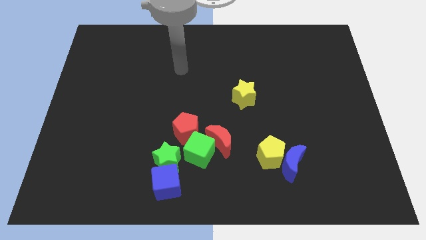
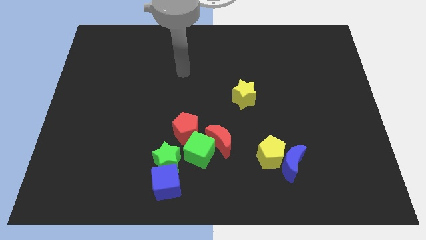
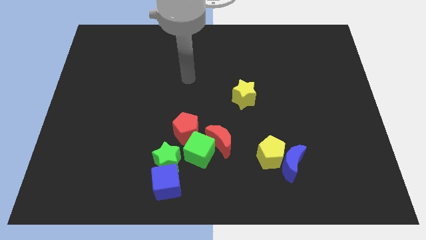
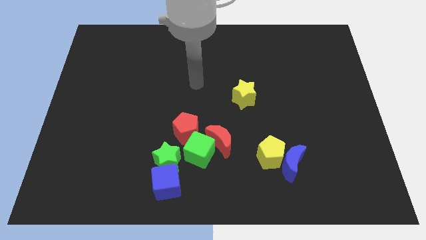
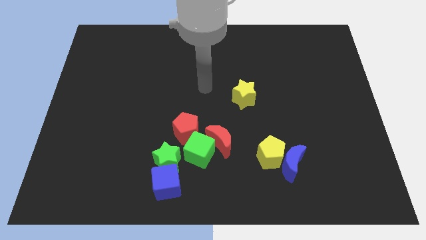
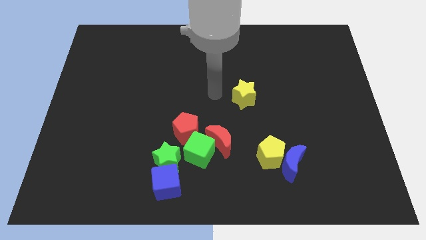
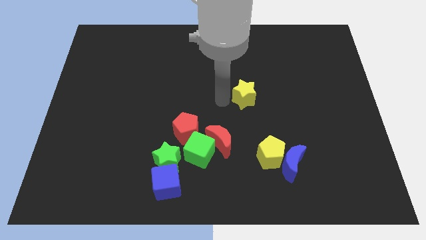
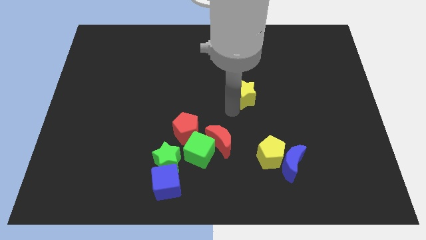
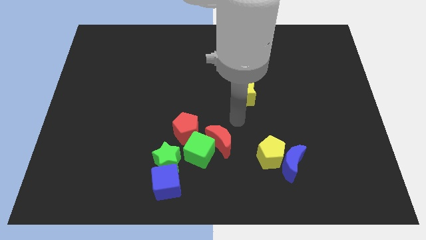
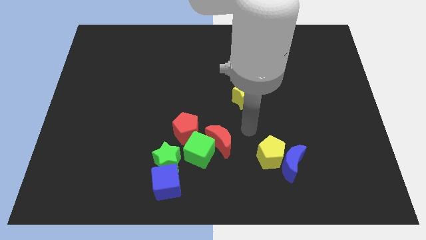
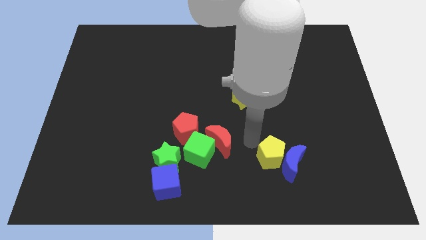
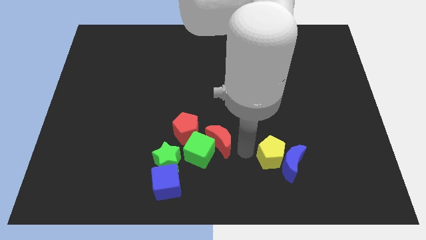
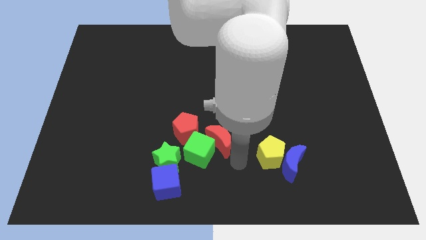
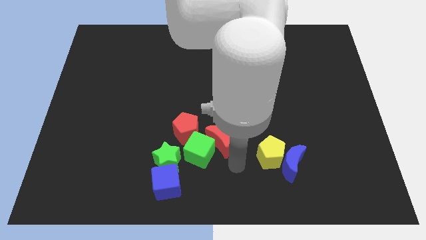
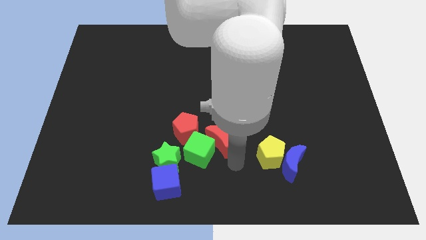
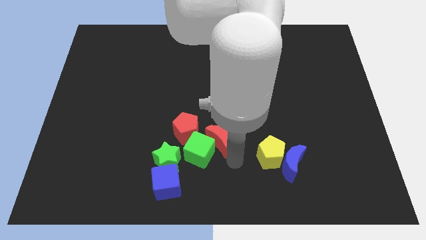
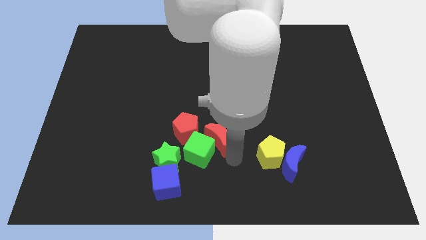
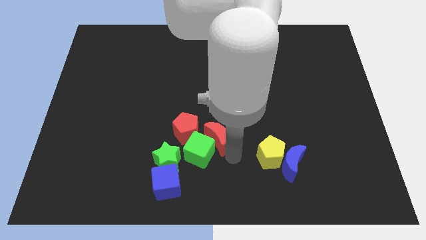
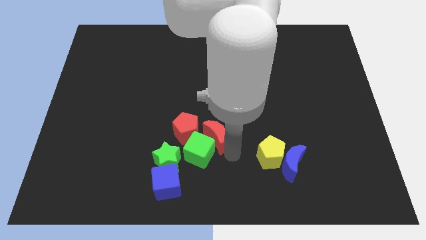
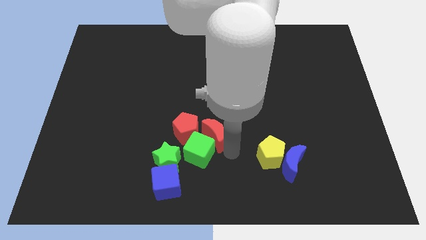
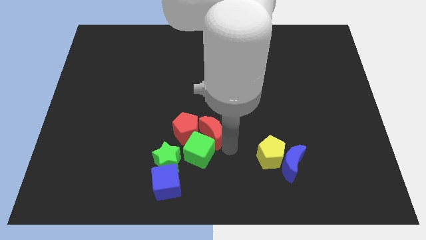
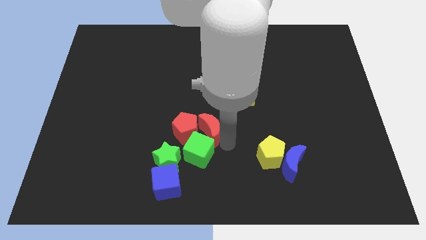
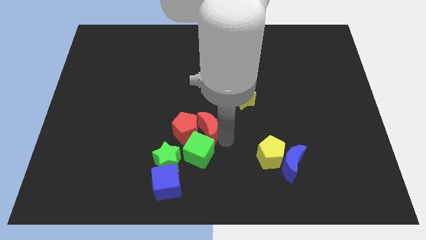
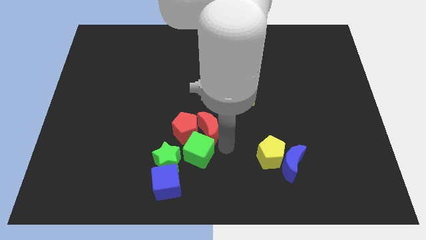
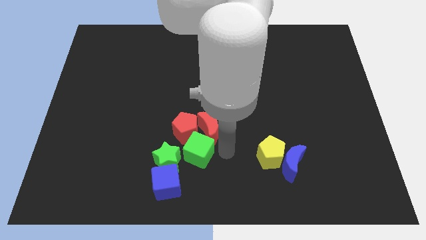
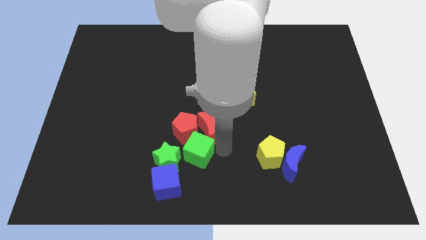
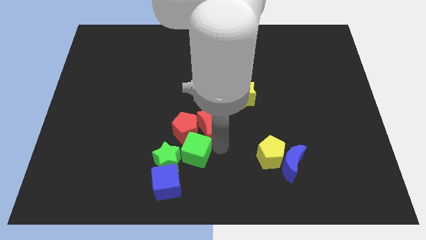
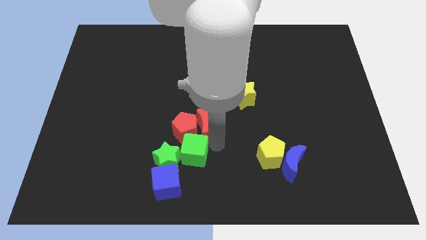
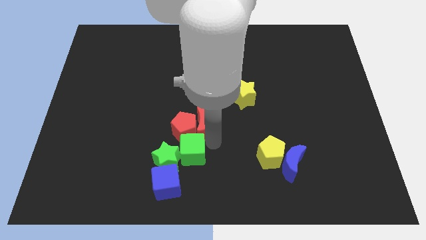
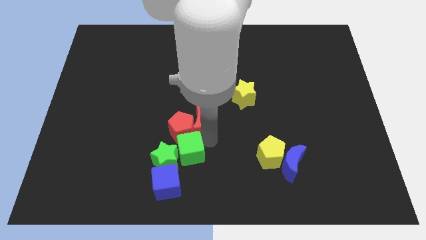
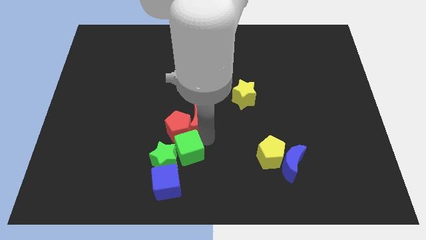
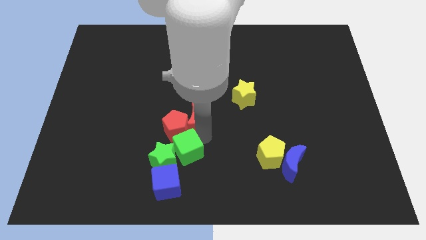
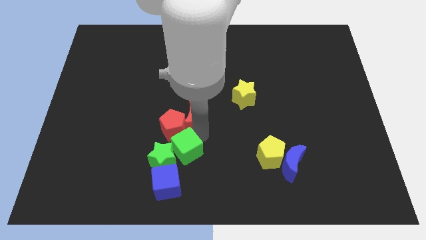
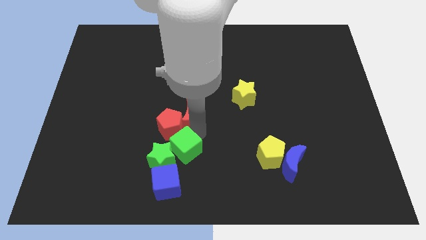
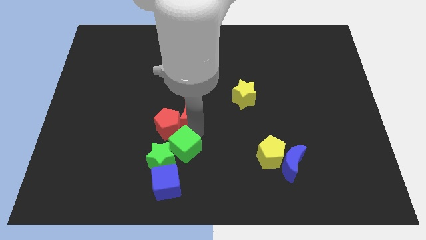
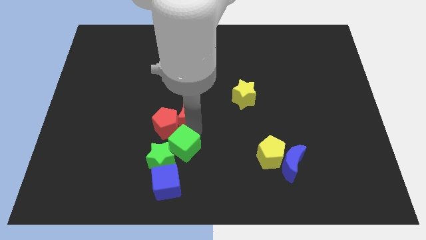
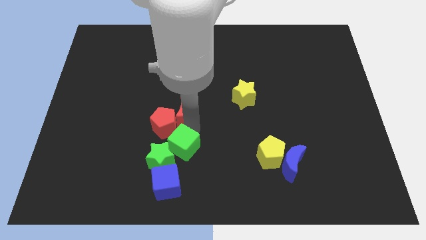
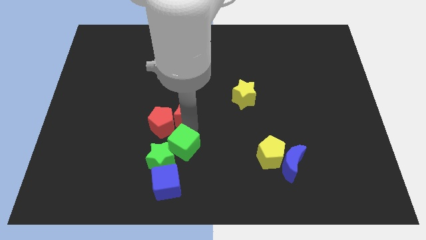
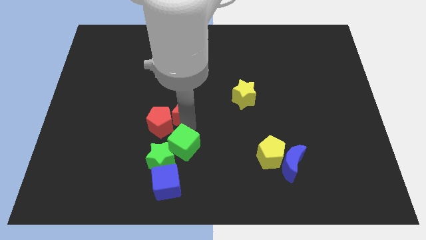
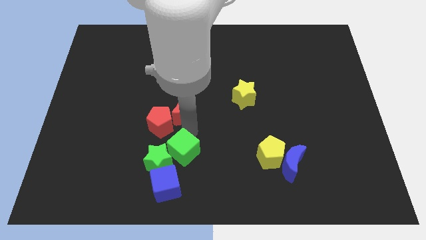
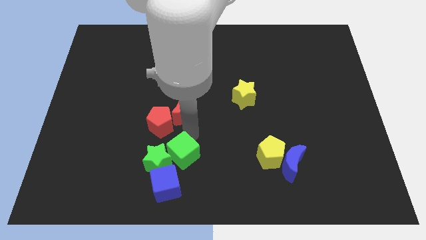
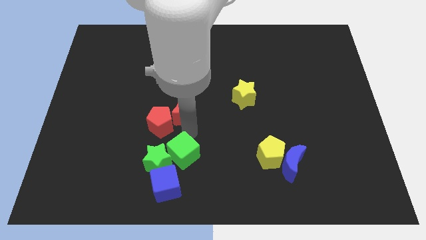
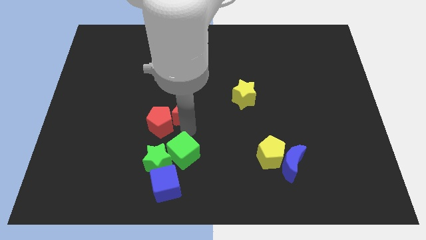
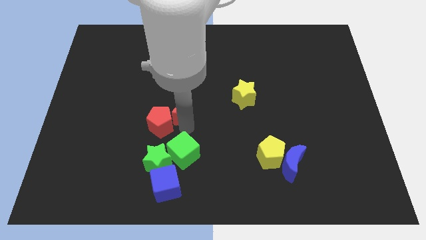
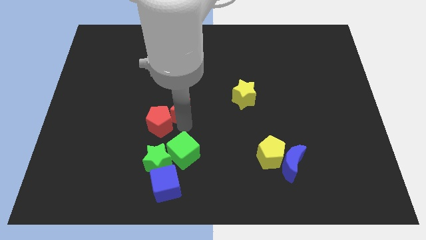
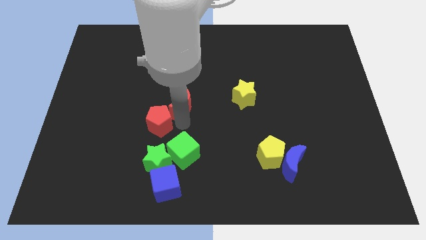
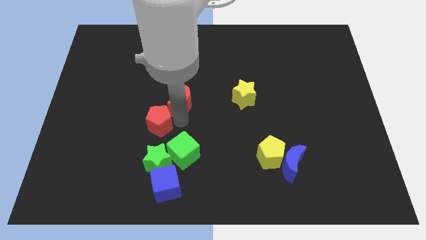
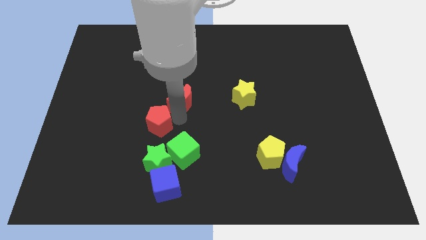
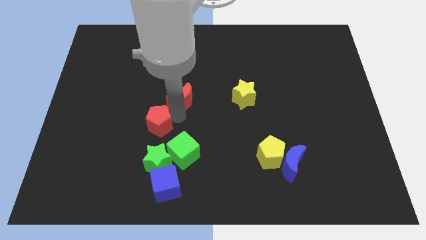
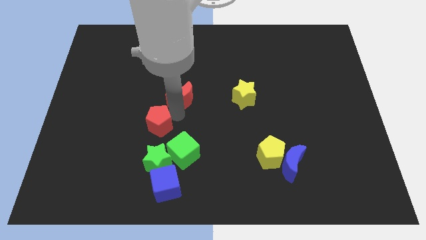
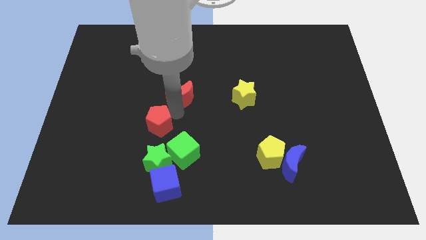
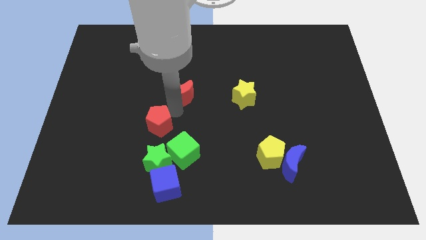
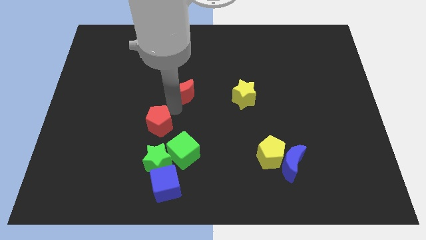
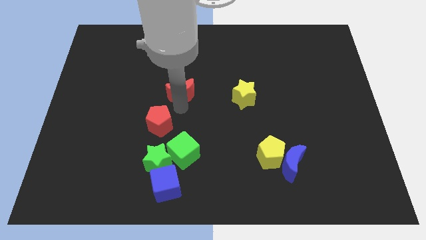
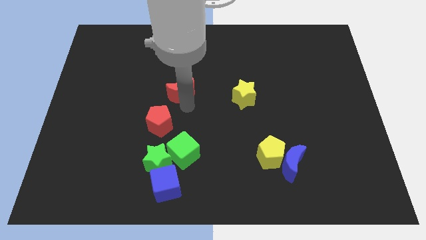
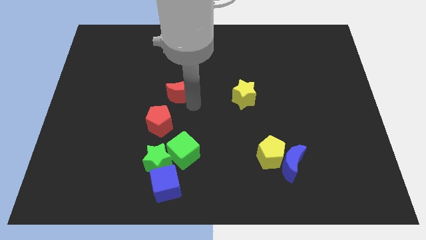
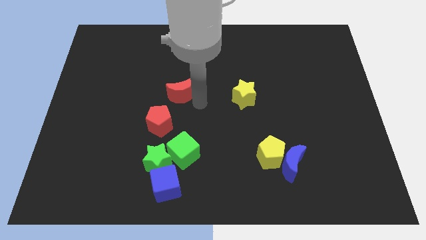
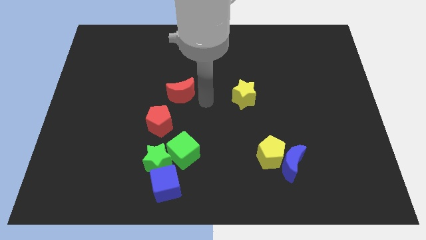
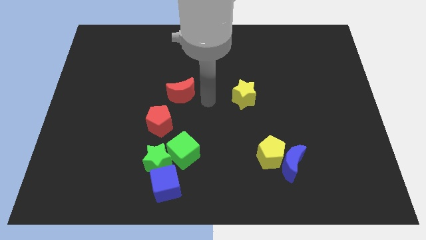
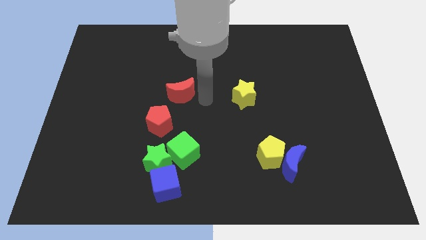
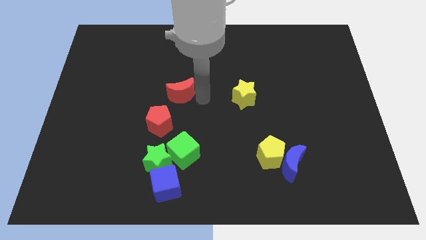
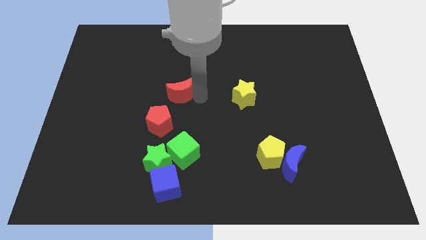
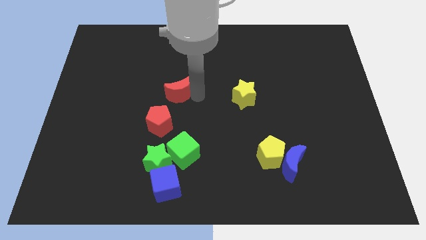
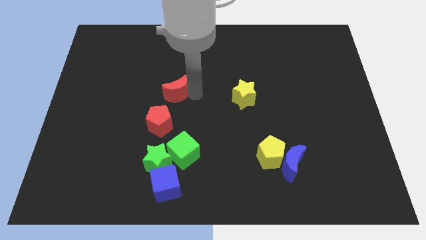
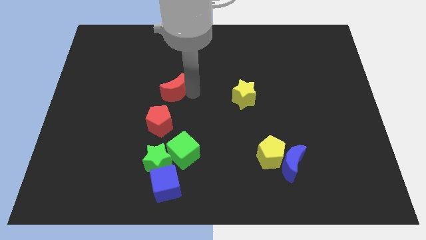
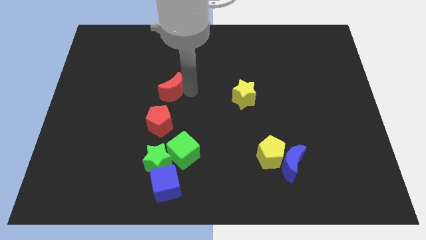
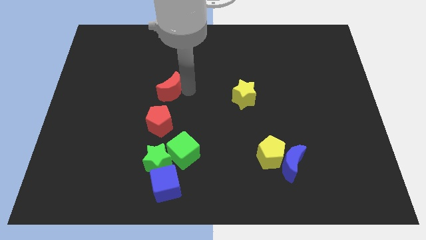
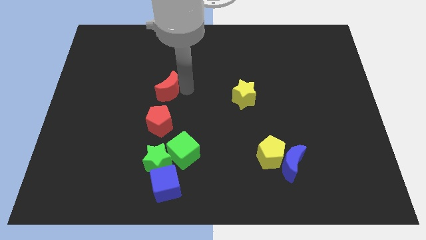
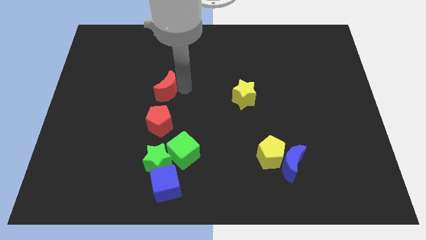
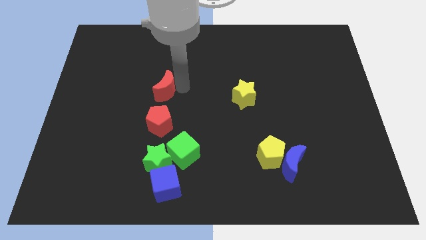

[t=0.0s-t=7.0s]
move the red moon up and then to the left

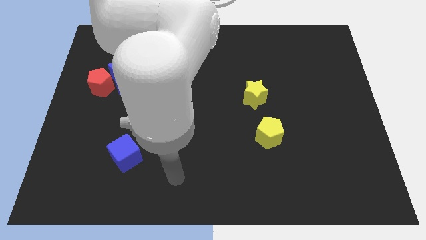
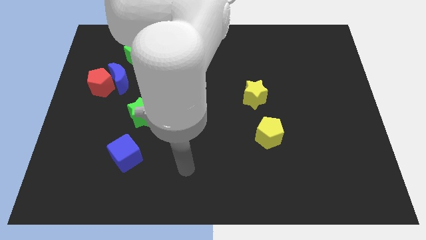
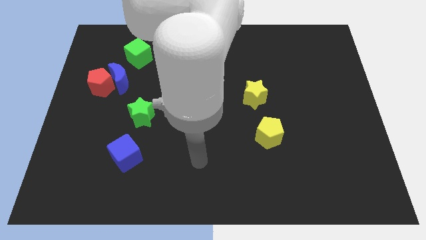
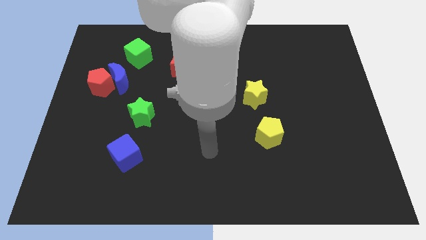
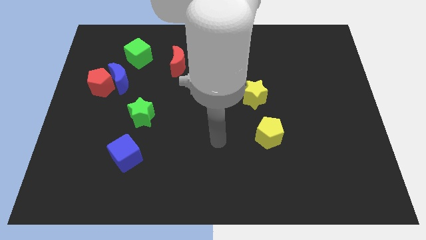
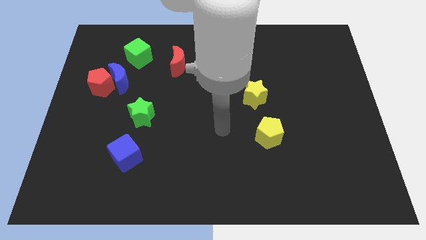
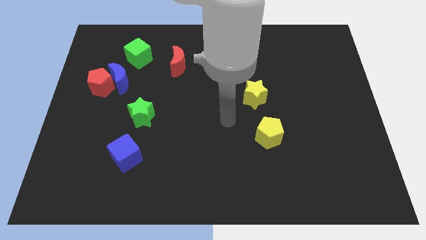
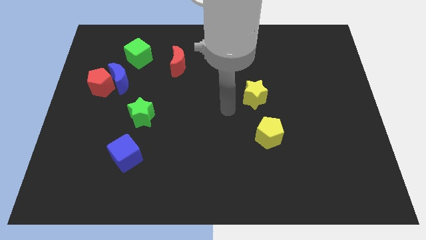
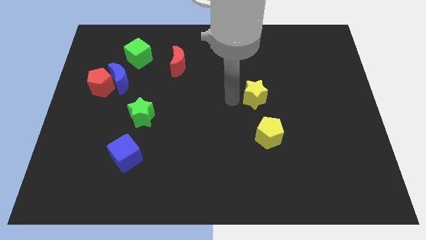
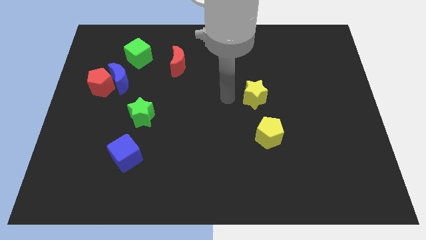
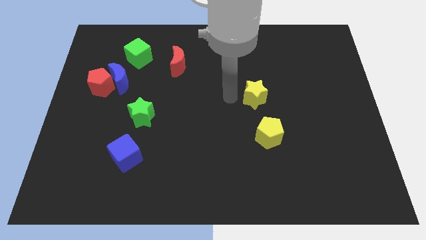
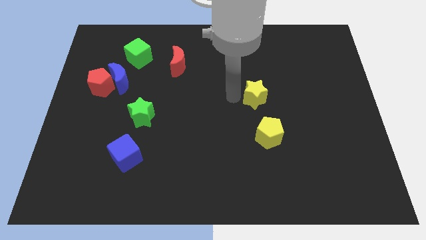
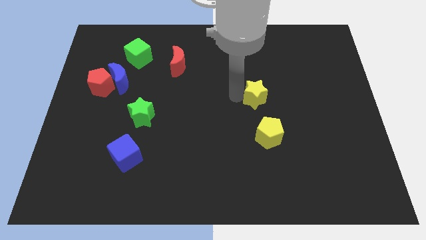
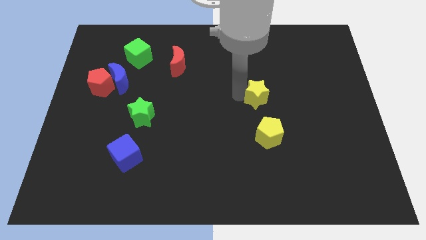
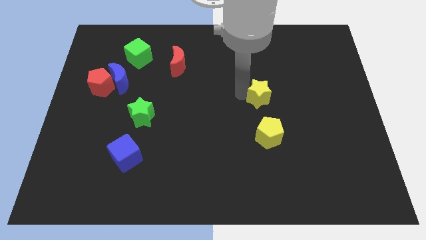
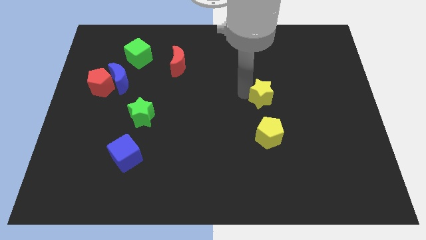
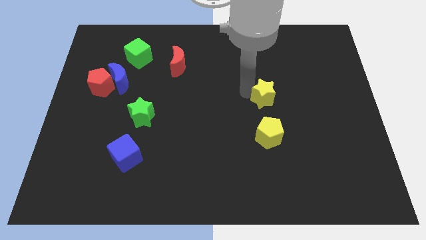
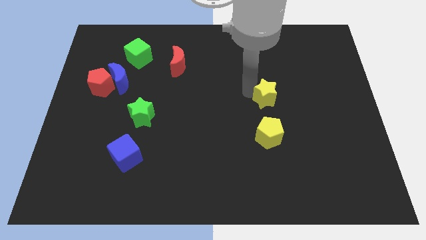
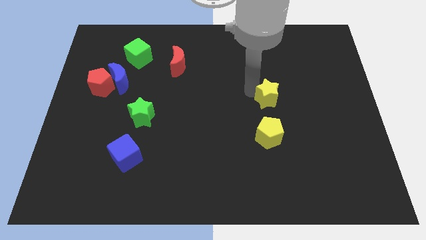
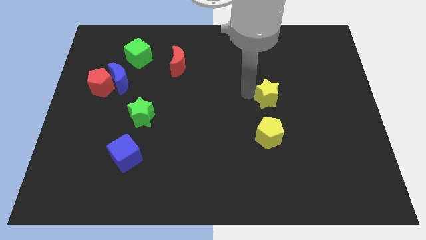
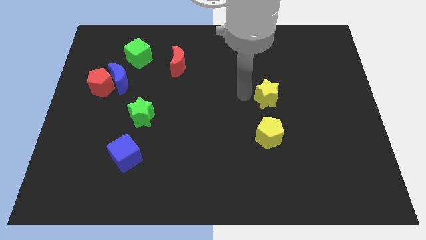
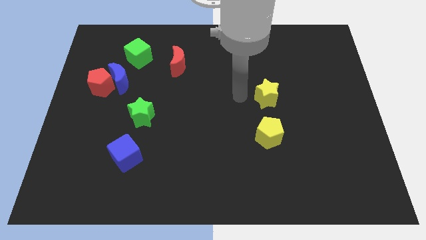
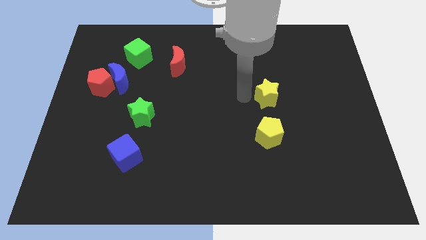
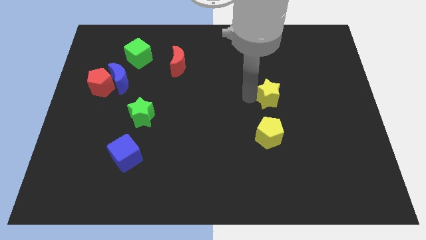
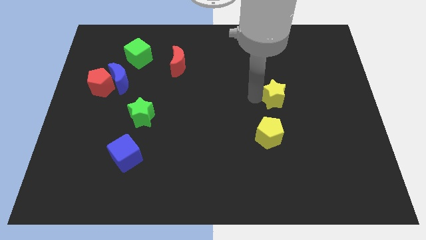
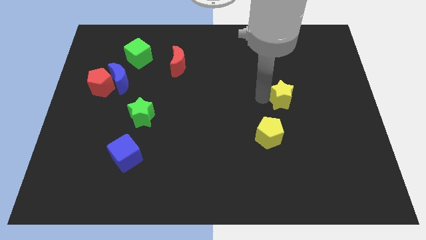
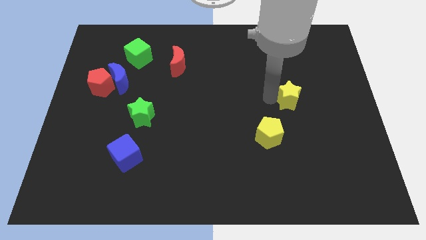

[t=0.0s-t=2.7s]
move the yellow star slightly right
